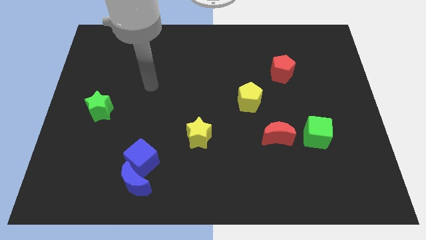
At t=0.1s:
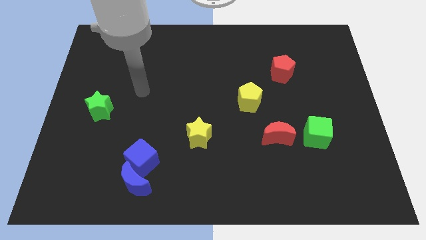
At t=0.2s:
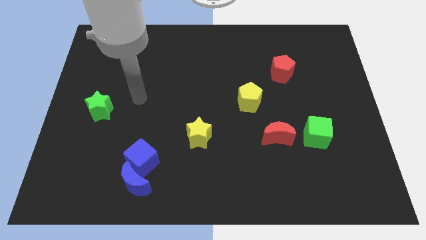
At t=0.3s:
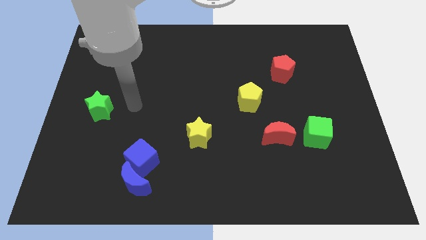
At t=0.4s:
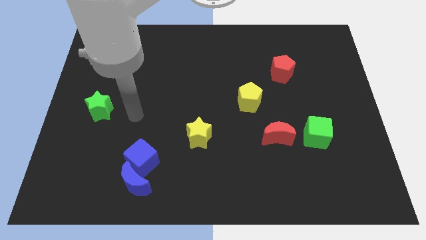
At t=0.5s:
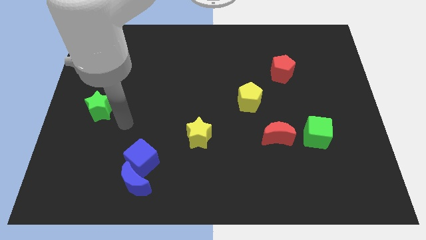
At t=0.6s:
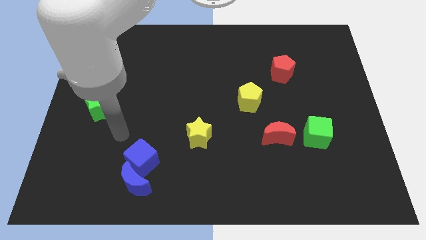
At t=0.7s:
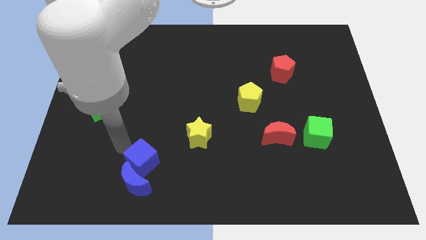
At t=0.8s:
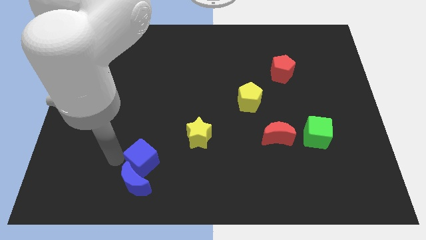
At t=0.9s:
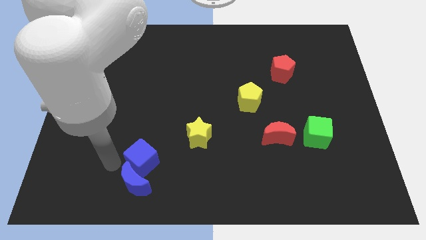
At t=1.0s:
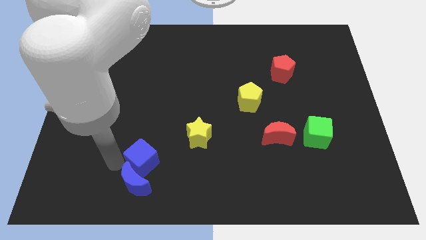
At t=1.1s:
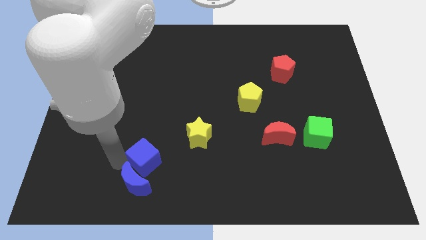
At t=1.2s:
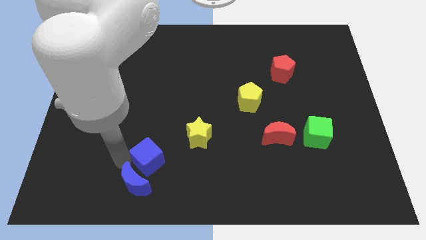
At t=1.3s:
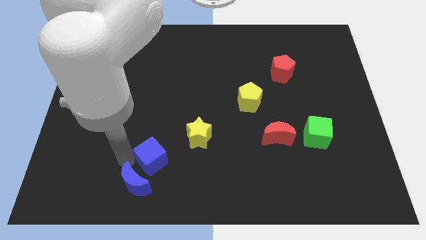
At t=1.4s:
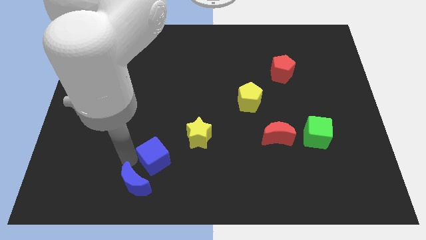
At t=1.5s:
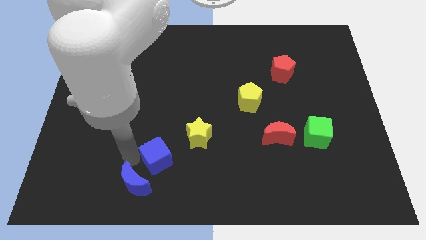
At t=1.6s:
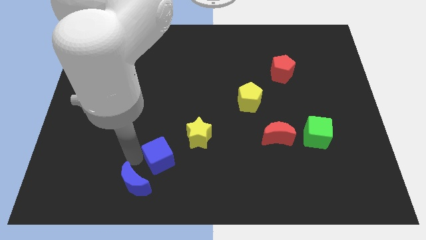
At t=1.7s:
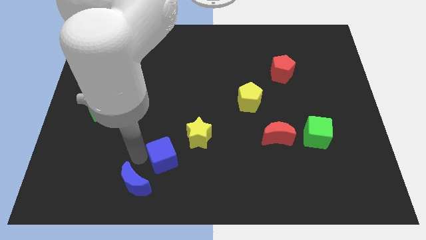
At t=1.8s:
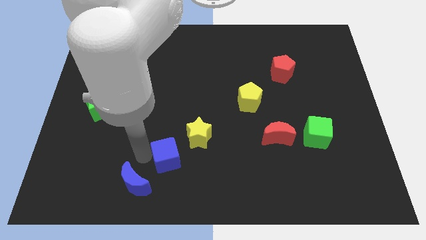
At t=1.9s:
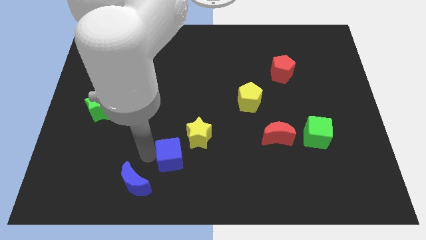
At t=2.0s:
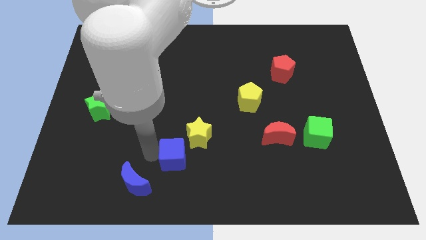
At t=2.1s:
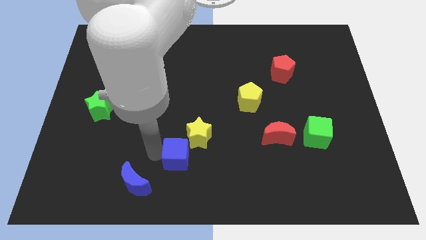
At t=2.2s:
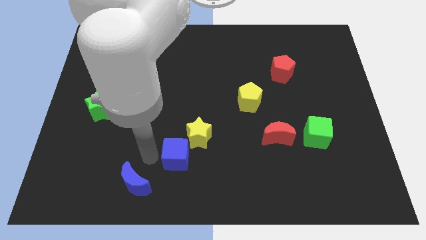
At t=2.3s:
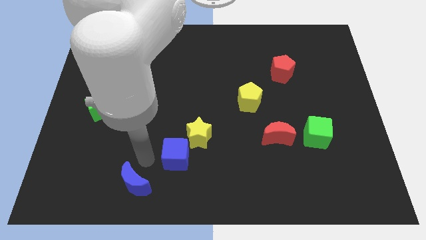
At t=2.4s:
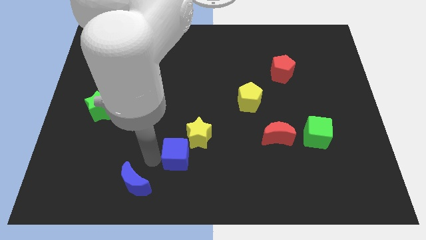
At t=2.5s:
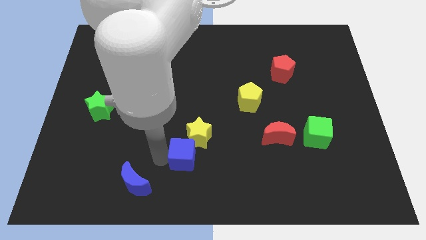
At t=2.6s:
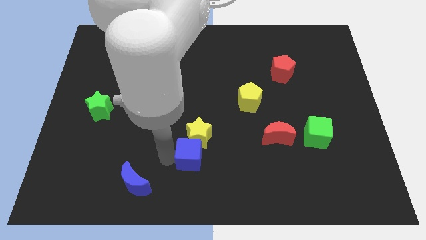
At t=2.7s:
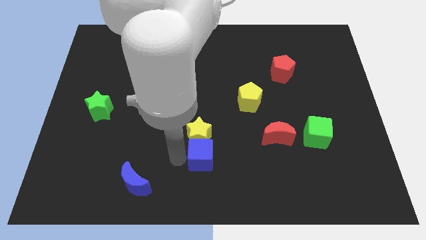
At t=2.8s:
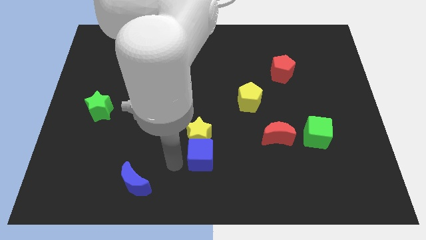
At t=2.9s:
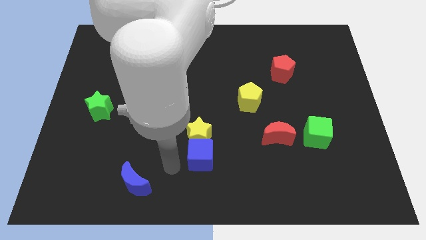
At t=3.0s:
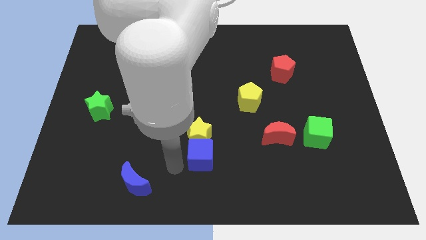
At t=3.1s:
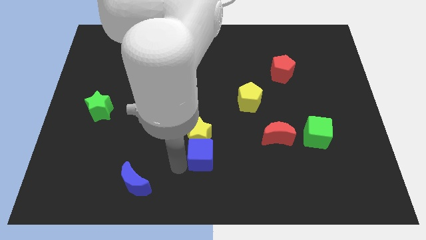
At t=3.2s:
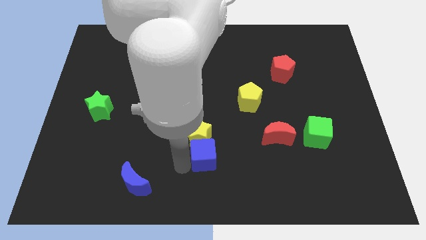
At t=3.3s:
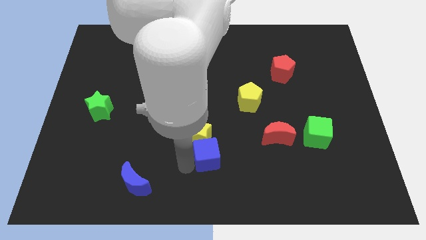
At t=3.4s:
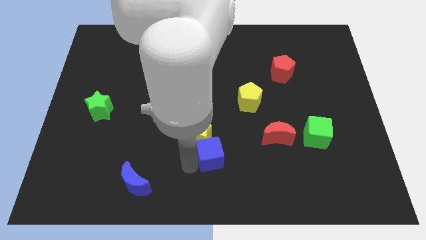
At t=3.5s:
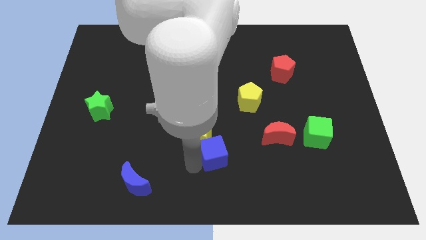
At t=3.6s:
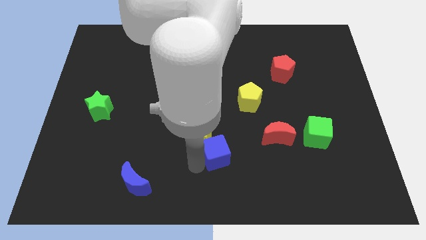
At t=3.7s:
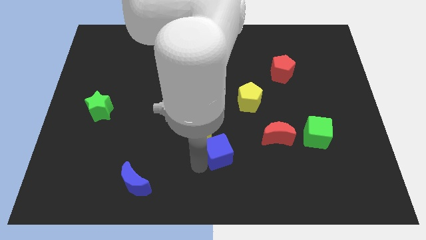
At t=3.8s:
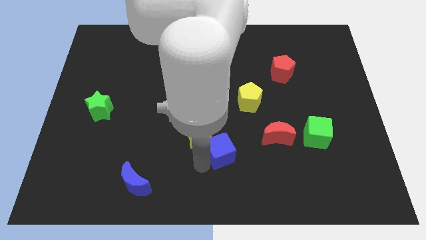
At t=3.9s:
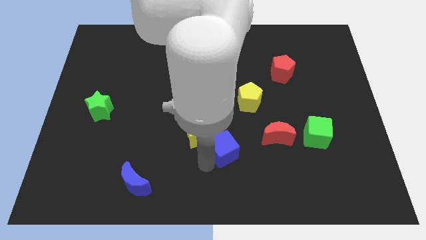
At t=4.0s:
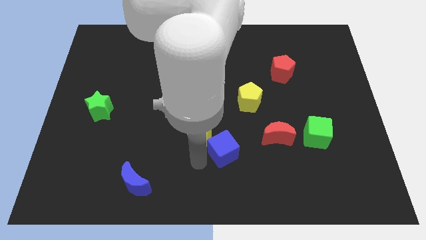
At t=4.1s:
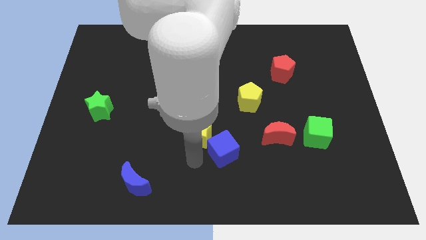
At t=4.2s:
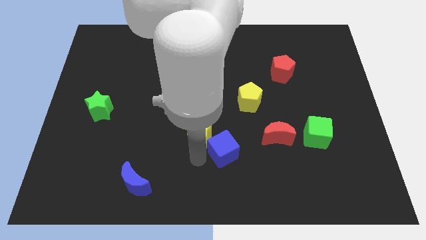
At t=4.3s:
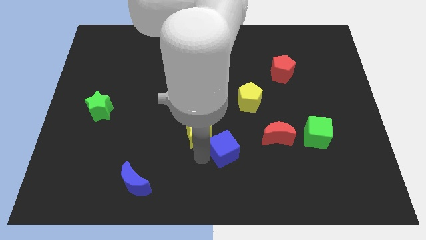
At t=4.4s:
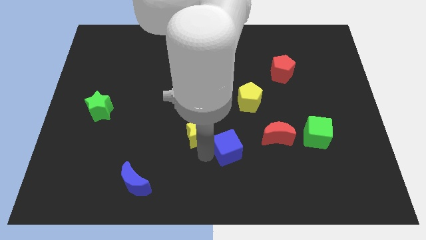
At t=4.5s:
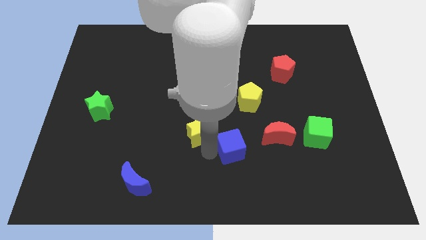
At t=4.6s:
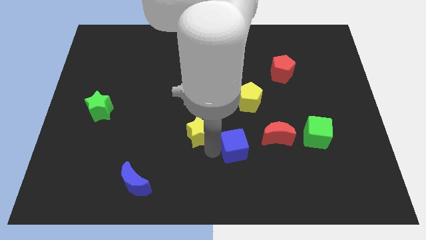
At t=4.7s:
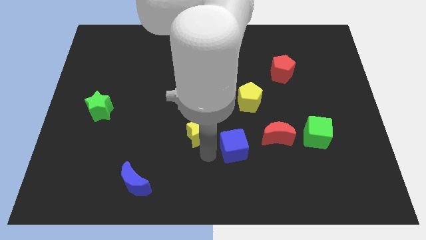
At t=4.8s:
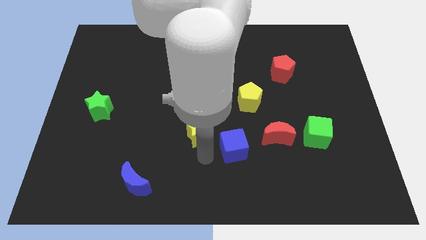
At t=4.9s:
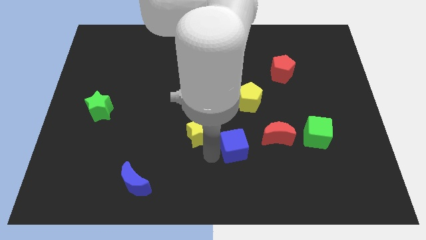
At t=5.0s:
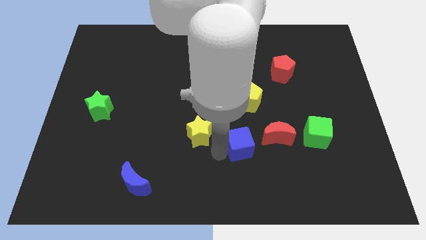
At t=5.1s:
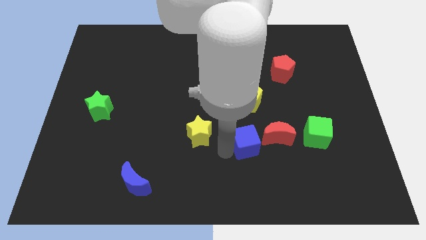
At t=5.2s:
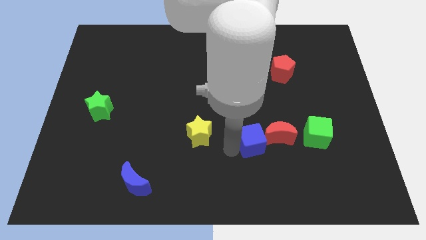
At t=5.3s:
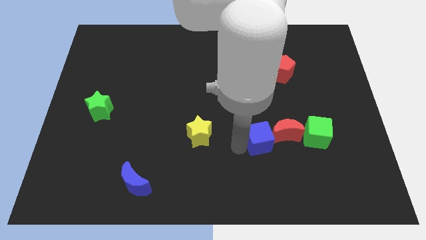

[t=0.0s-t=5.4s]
put the blue cube next to the red moon

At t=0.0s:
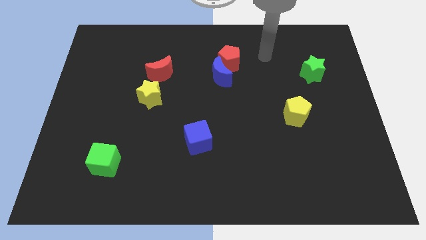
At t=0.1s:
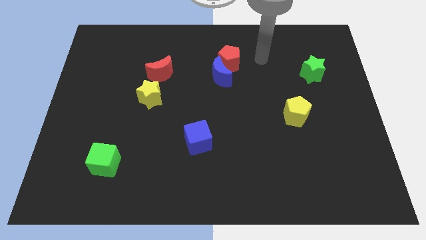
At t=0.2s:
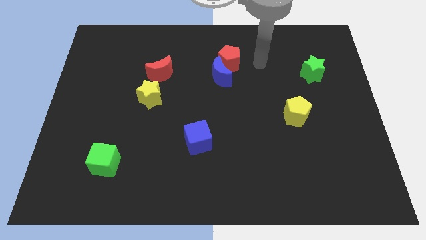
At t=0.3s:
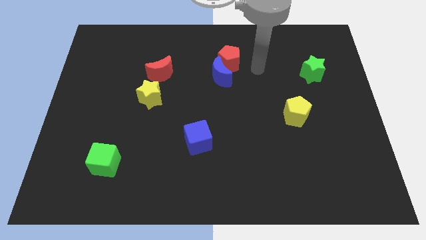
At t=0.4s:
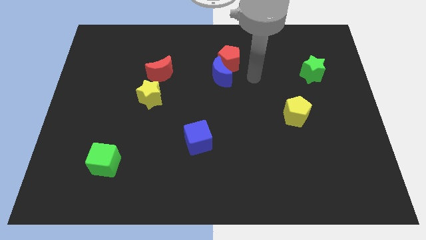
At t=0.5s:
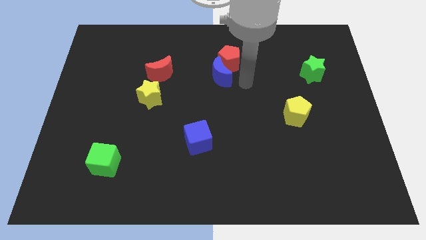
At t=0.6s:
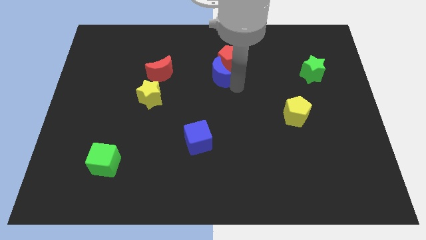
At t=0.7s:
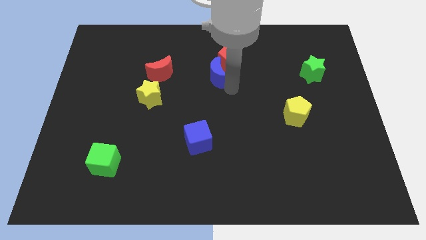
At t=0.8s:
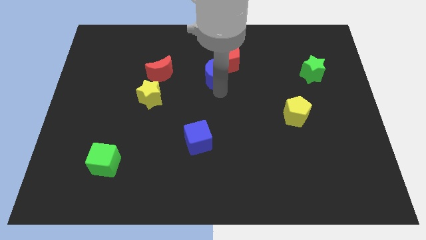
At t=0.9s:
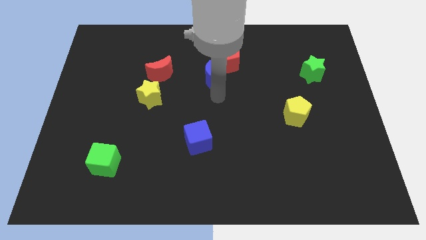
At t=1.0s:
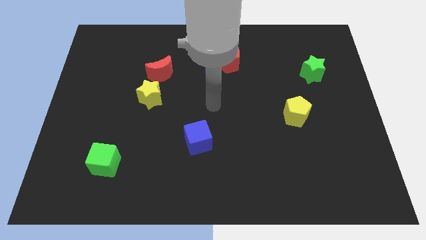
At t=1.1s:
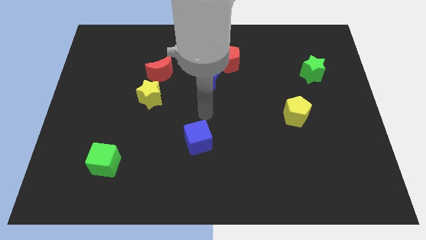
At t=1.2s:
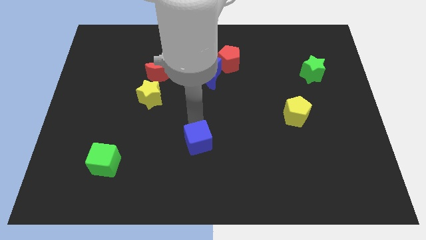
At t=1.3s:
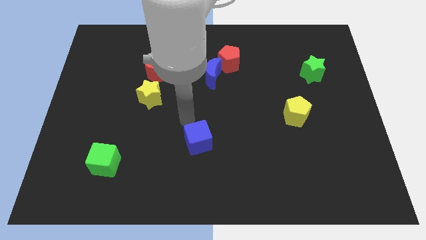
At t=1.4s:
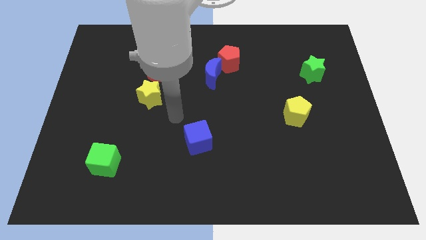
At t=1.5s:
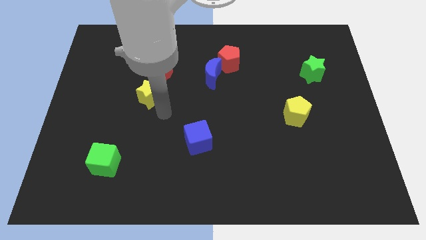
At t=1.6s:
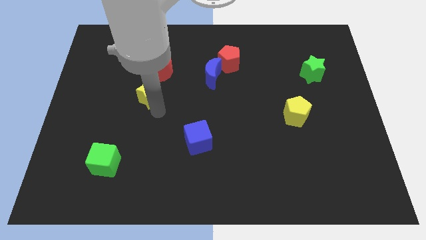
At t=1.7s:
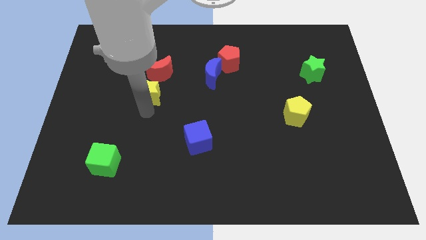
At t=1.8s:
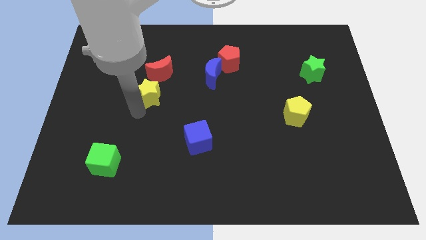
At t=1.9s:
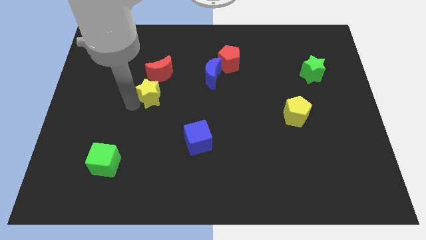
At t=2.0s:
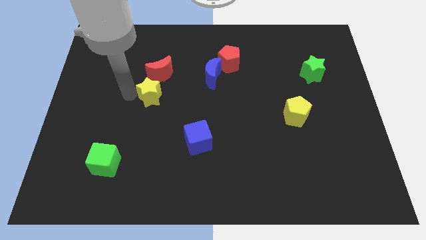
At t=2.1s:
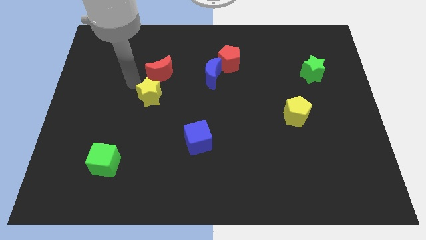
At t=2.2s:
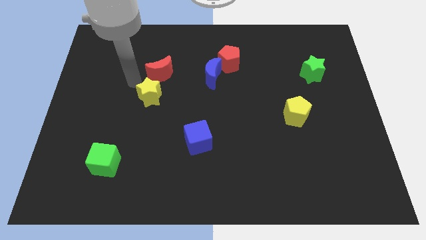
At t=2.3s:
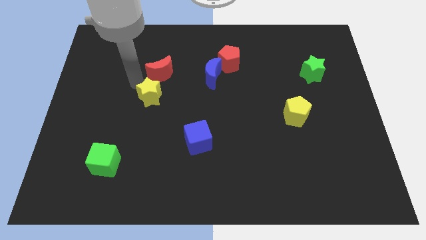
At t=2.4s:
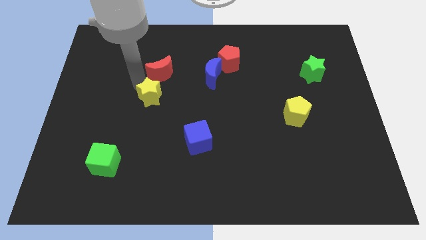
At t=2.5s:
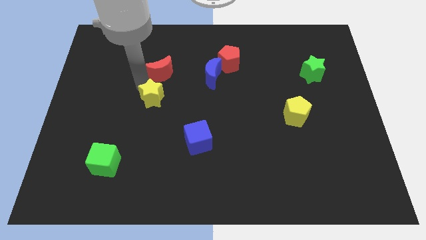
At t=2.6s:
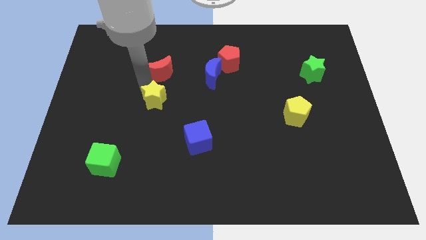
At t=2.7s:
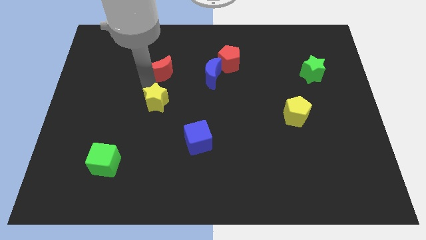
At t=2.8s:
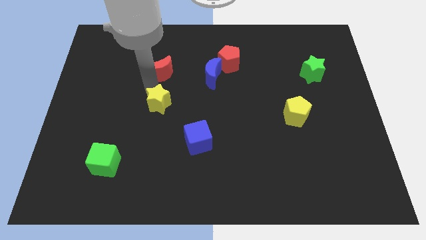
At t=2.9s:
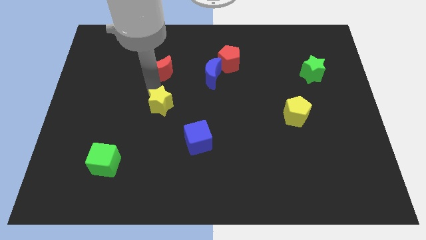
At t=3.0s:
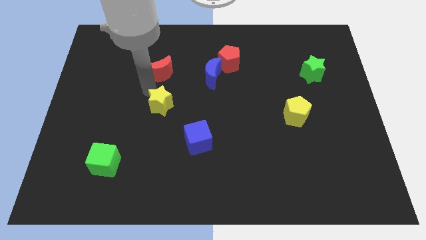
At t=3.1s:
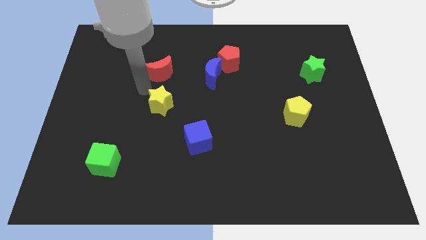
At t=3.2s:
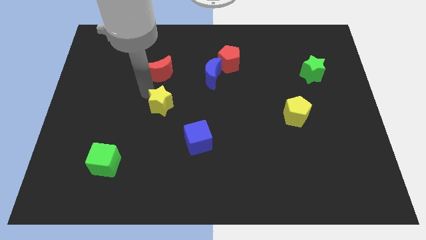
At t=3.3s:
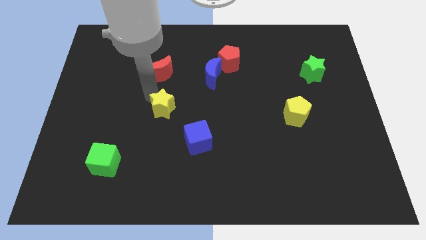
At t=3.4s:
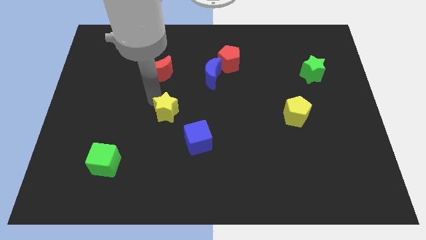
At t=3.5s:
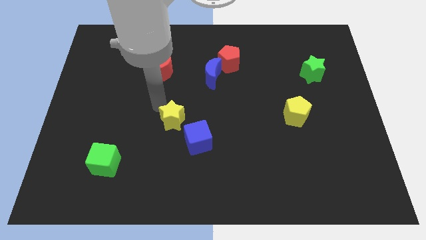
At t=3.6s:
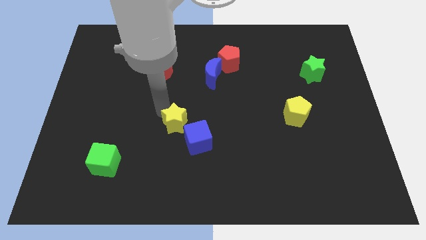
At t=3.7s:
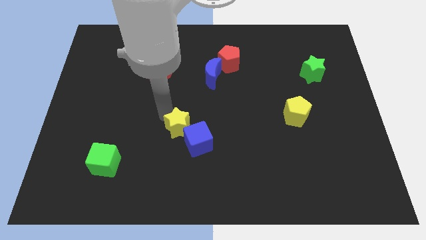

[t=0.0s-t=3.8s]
slide the yellow star to the blue cube
